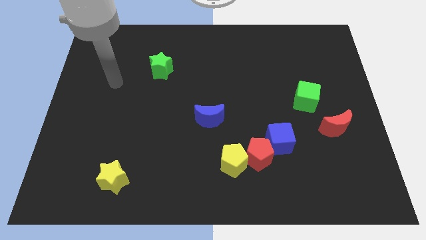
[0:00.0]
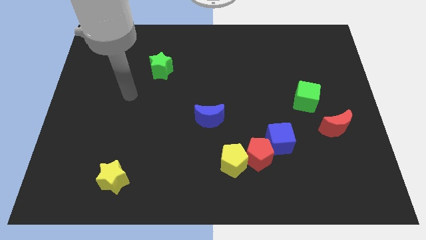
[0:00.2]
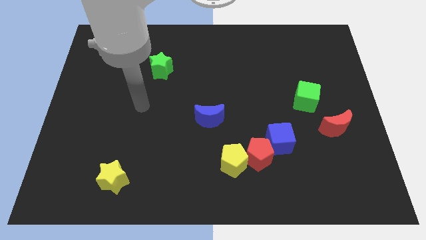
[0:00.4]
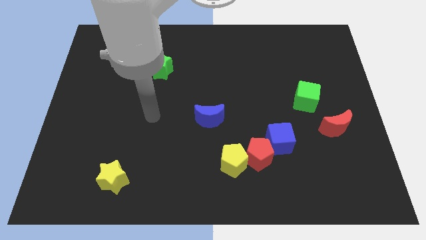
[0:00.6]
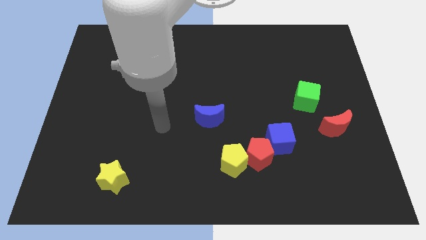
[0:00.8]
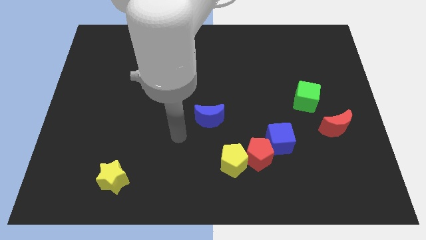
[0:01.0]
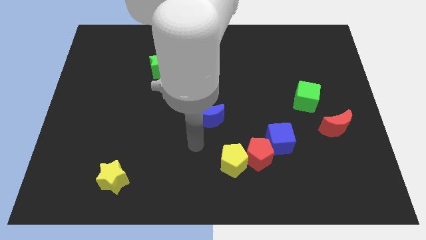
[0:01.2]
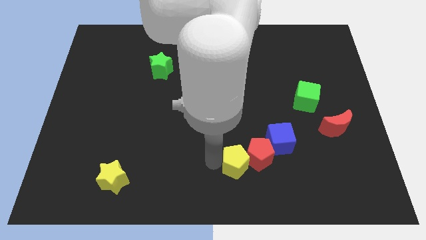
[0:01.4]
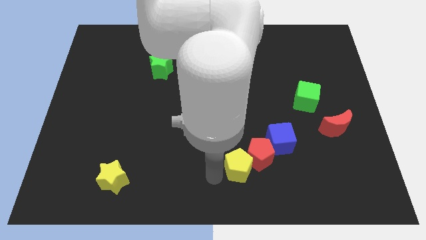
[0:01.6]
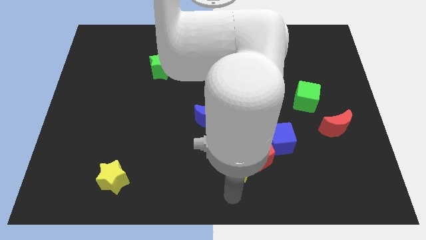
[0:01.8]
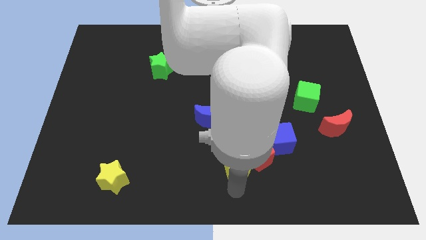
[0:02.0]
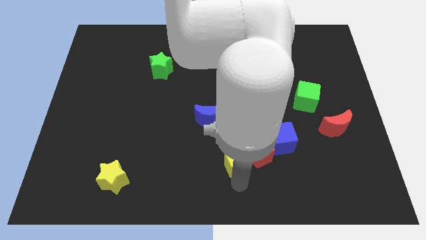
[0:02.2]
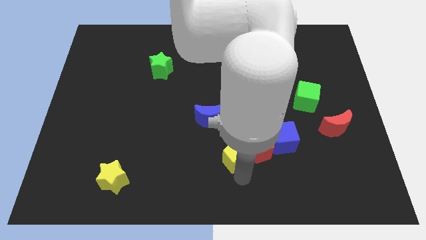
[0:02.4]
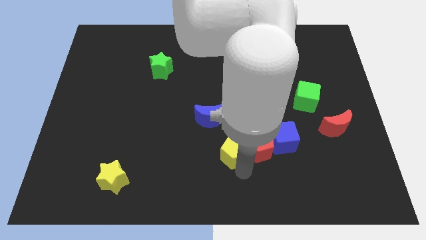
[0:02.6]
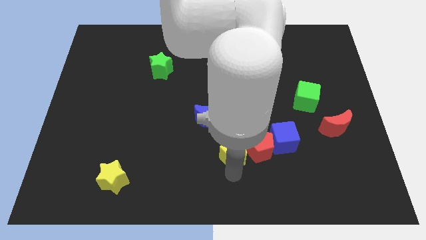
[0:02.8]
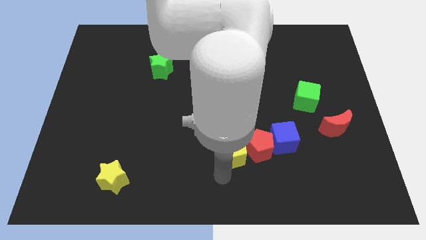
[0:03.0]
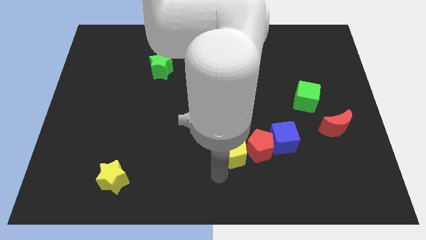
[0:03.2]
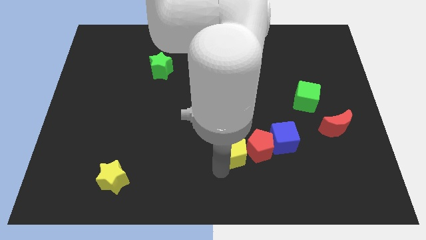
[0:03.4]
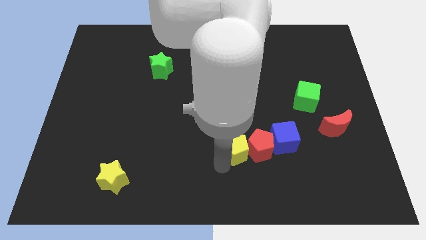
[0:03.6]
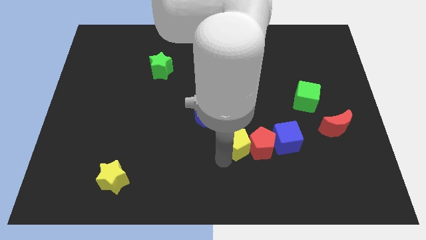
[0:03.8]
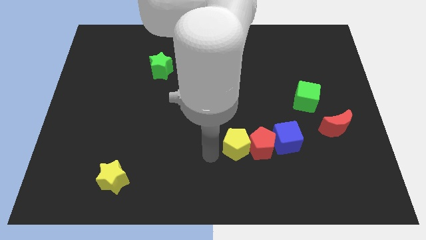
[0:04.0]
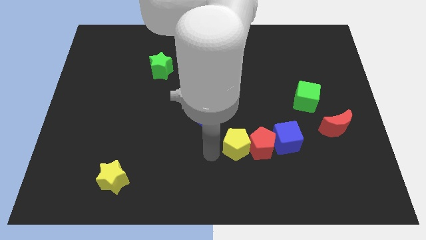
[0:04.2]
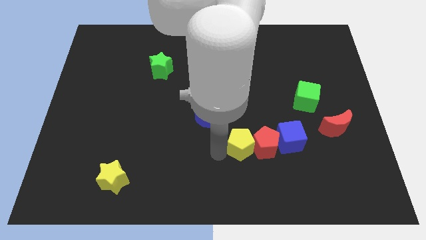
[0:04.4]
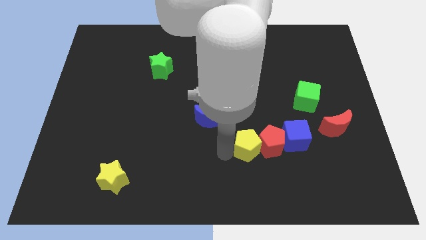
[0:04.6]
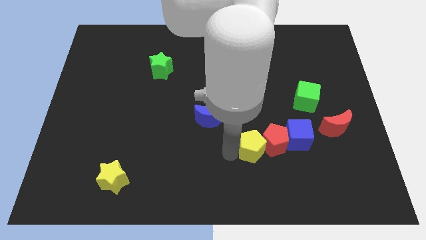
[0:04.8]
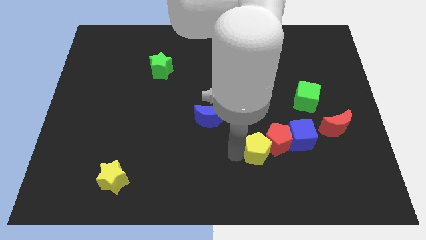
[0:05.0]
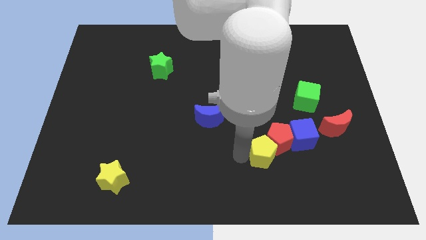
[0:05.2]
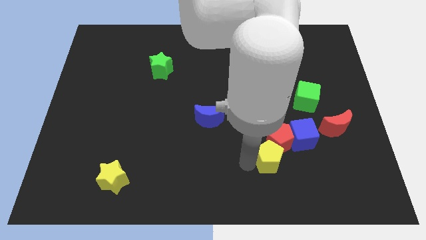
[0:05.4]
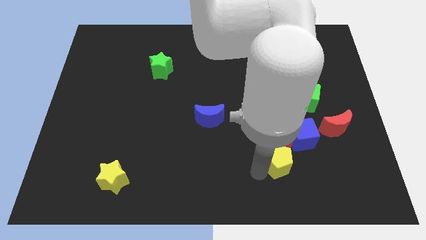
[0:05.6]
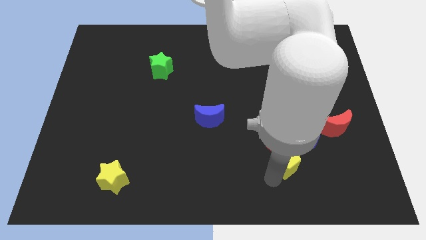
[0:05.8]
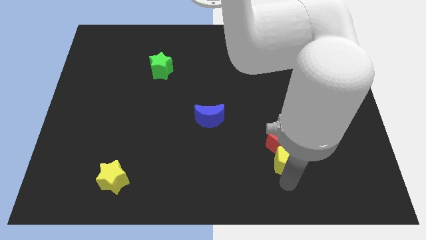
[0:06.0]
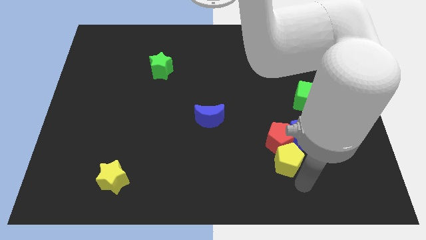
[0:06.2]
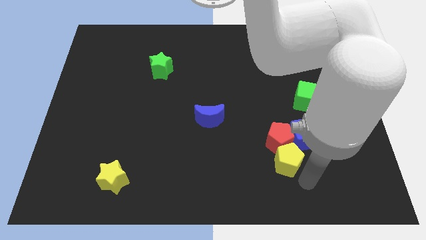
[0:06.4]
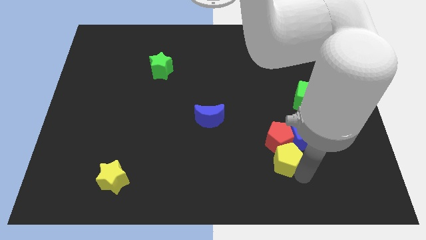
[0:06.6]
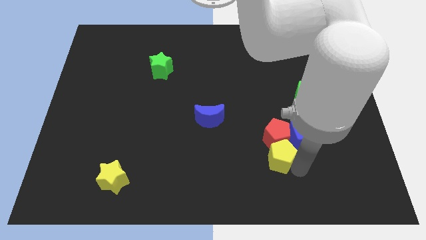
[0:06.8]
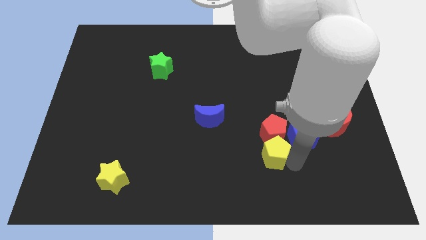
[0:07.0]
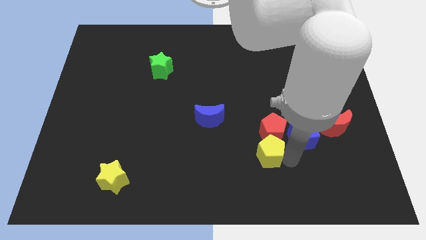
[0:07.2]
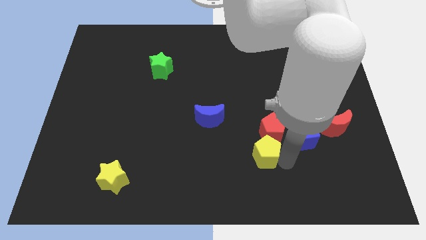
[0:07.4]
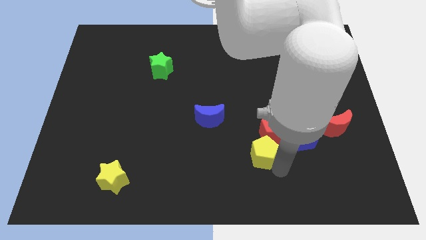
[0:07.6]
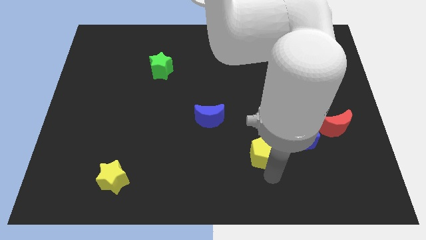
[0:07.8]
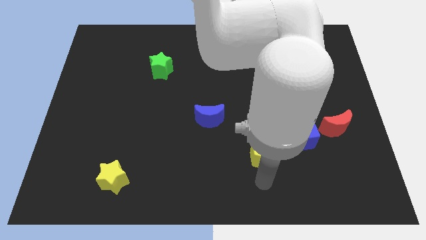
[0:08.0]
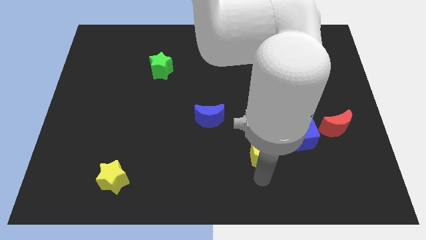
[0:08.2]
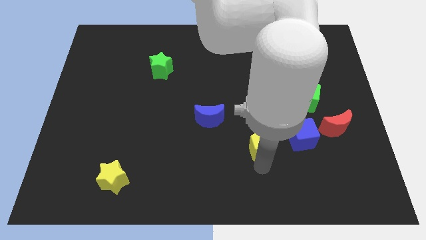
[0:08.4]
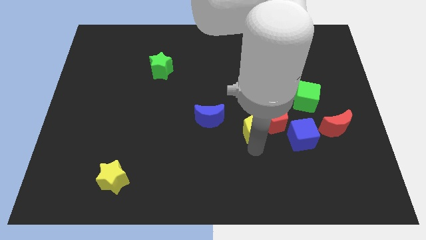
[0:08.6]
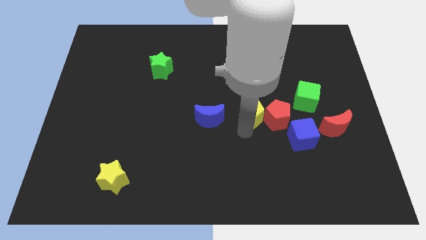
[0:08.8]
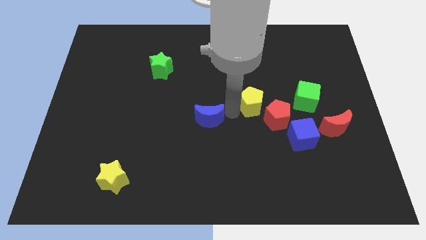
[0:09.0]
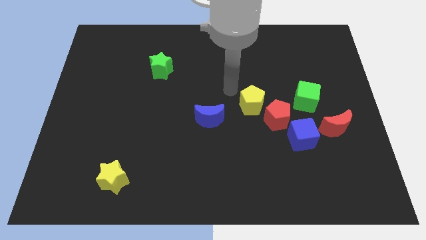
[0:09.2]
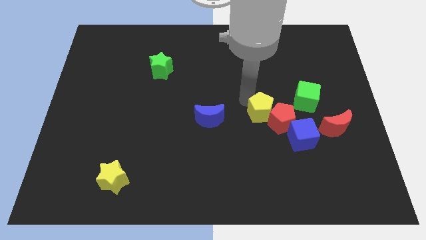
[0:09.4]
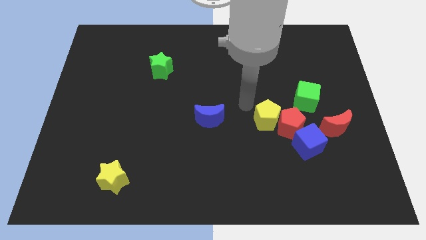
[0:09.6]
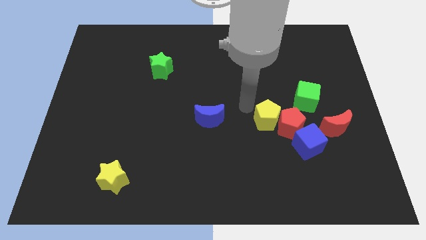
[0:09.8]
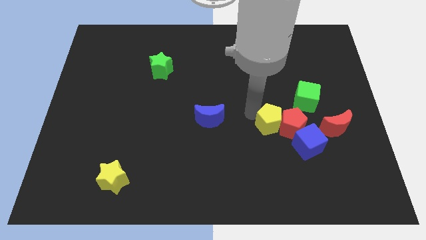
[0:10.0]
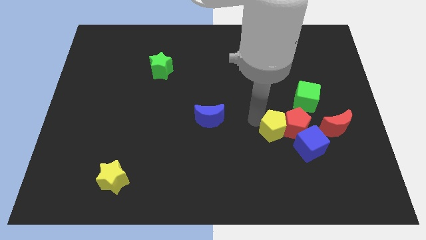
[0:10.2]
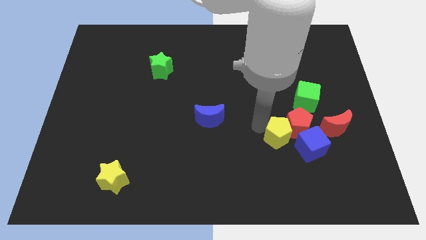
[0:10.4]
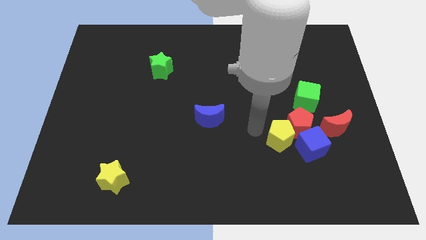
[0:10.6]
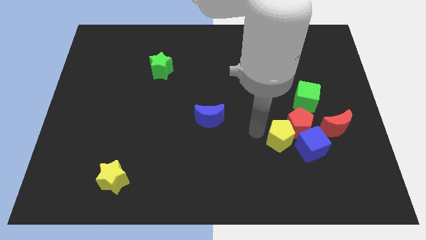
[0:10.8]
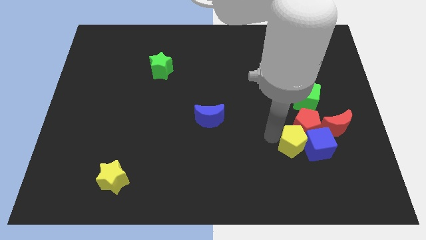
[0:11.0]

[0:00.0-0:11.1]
push the yellow pentagon close to the blue cube

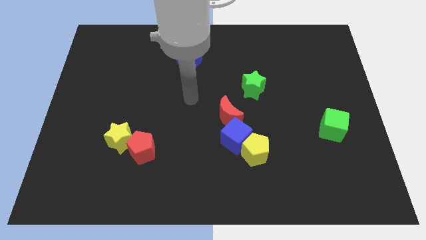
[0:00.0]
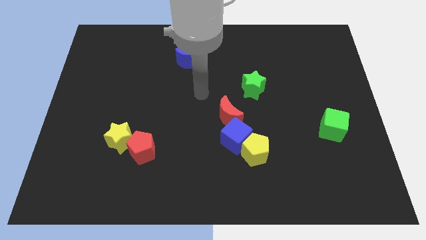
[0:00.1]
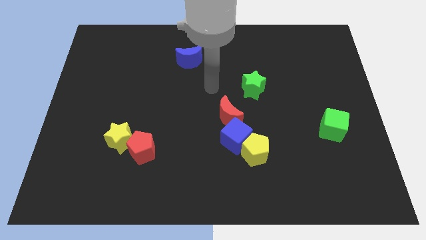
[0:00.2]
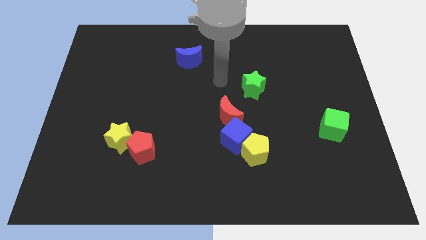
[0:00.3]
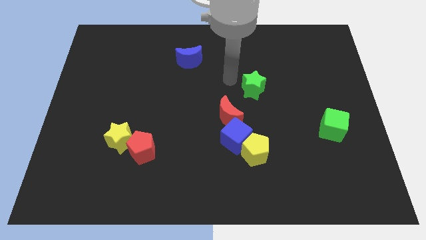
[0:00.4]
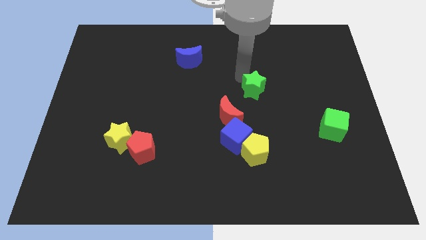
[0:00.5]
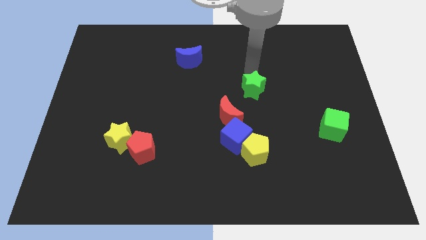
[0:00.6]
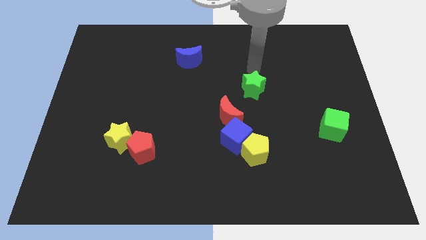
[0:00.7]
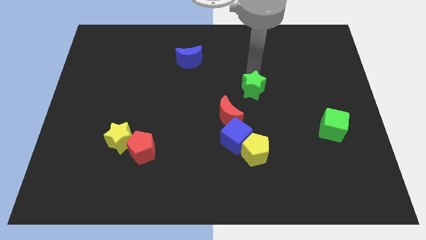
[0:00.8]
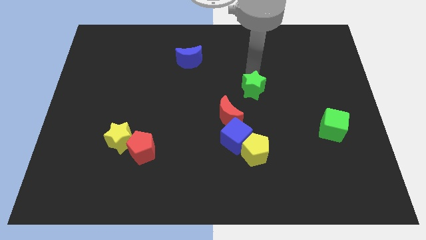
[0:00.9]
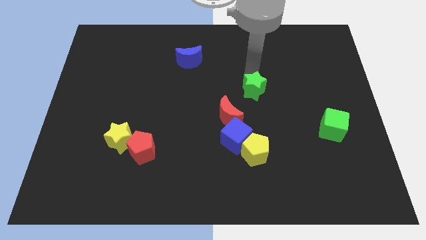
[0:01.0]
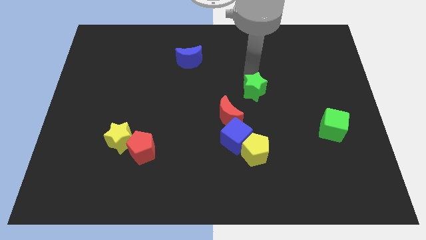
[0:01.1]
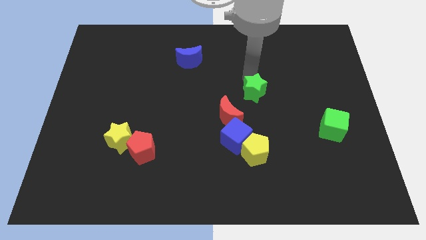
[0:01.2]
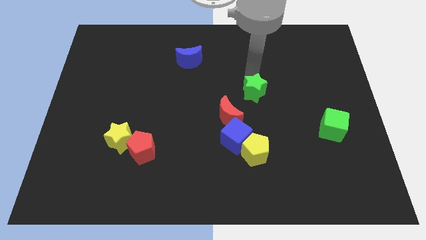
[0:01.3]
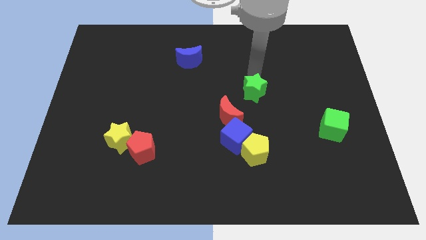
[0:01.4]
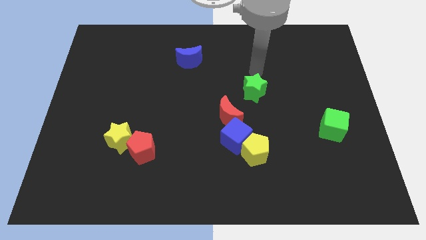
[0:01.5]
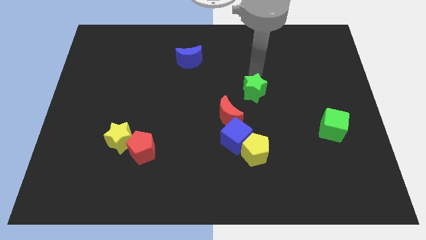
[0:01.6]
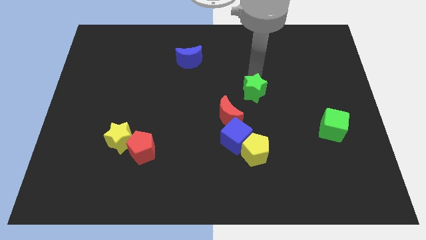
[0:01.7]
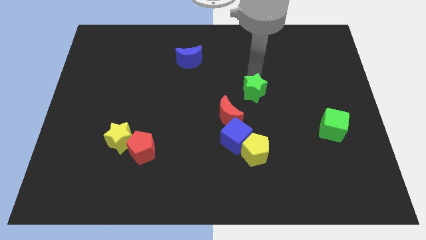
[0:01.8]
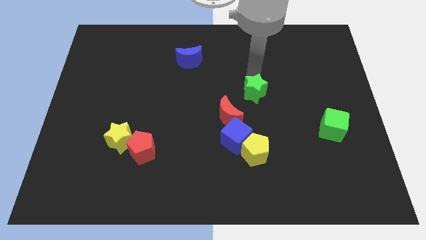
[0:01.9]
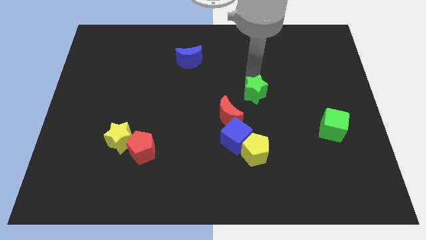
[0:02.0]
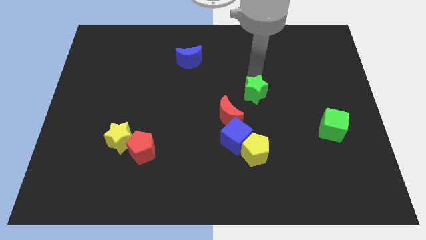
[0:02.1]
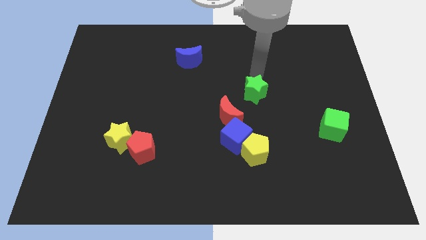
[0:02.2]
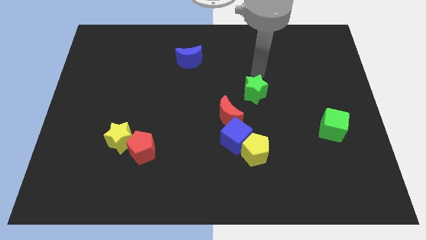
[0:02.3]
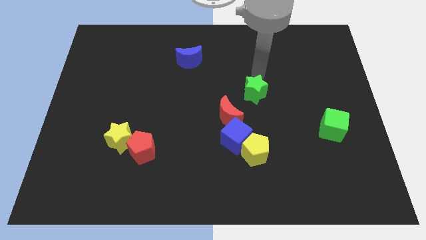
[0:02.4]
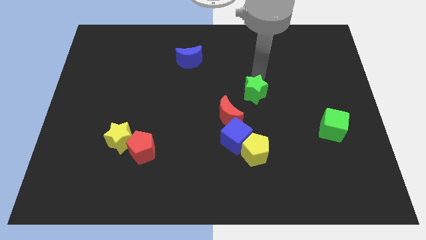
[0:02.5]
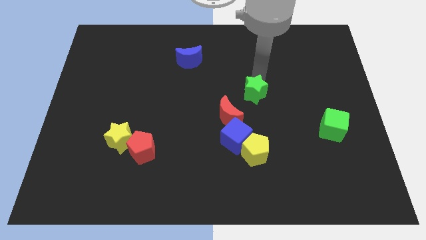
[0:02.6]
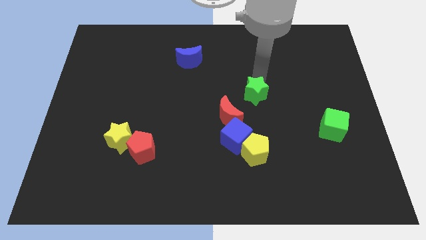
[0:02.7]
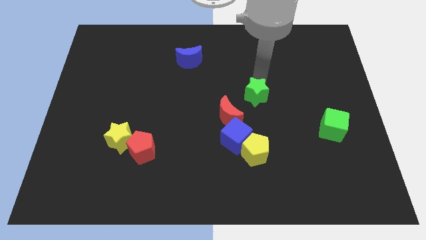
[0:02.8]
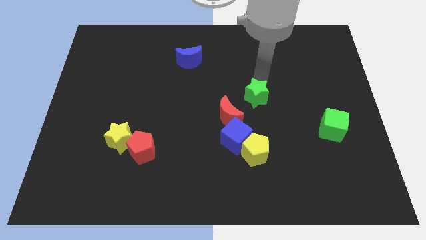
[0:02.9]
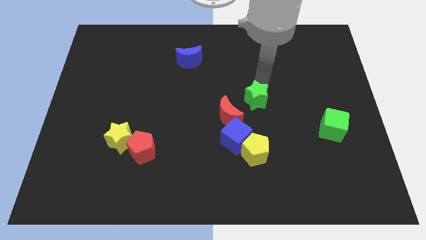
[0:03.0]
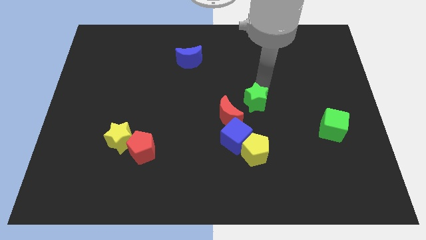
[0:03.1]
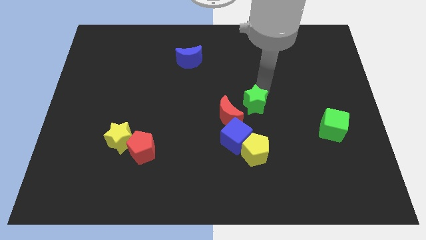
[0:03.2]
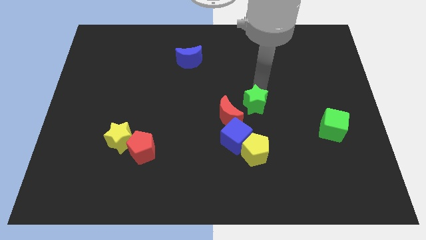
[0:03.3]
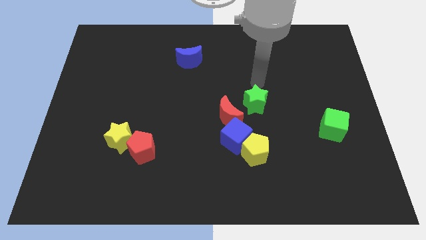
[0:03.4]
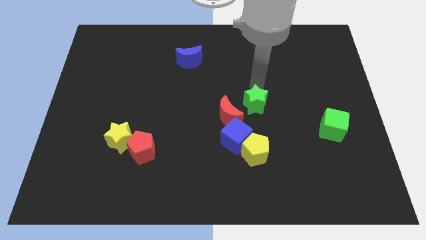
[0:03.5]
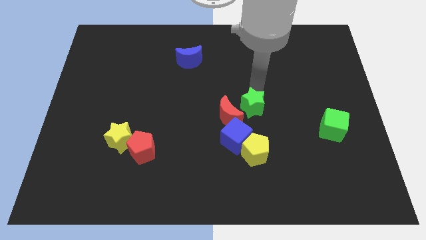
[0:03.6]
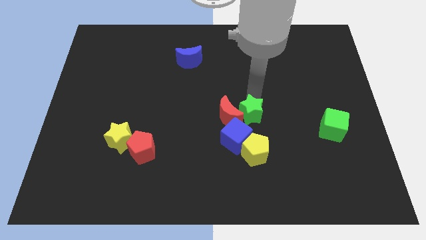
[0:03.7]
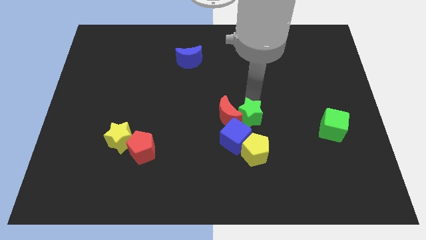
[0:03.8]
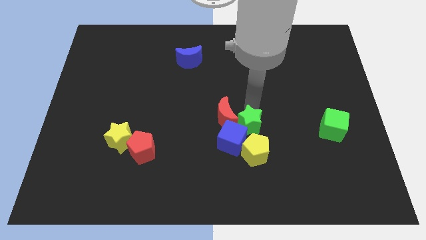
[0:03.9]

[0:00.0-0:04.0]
put the green star towards the blue cube
